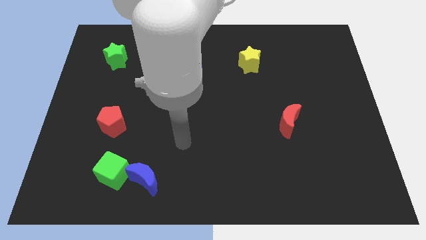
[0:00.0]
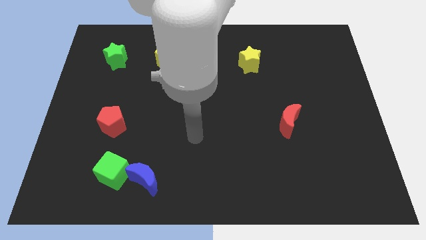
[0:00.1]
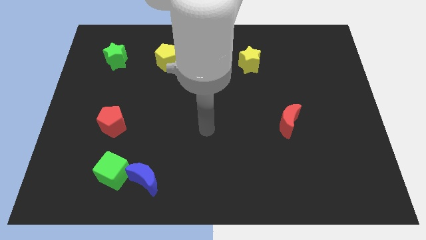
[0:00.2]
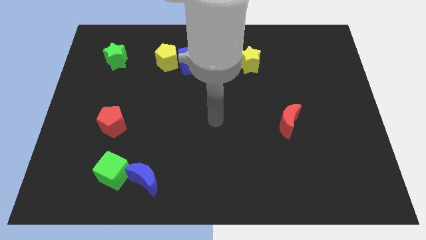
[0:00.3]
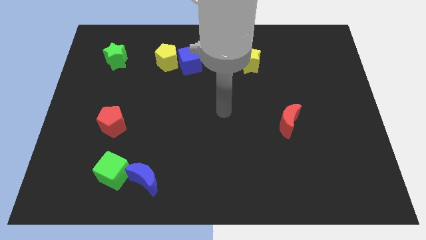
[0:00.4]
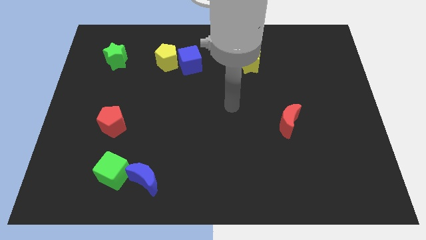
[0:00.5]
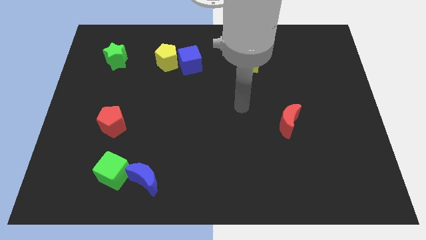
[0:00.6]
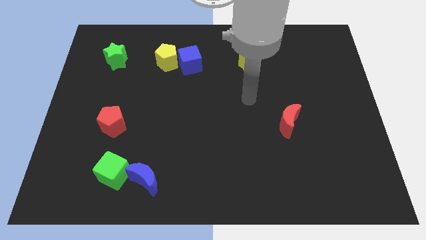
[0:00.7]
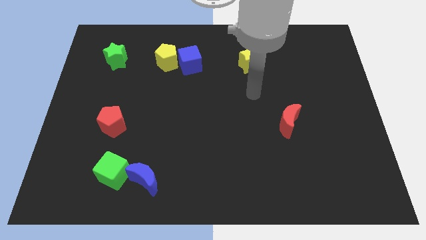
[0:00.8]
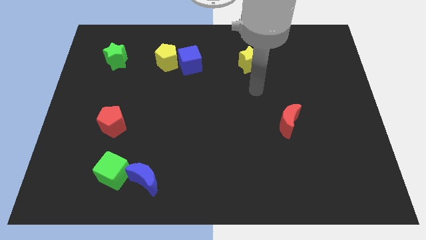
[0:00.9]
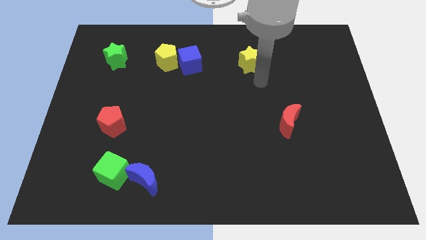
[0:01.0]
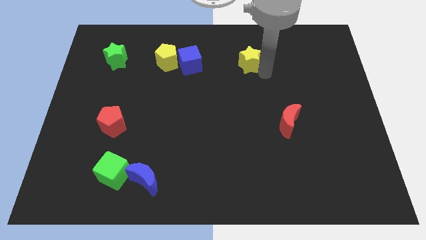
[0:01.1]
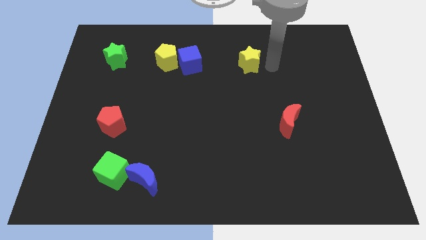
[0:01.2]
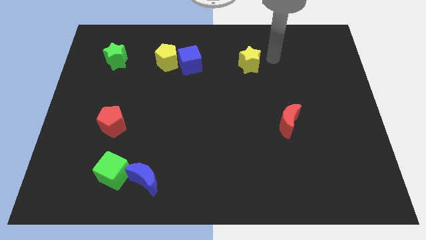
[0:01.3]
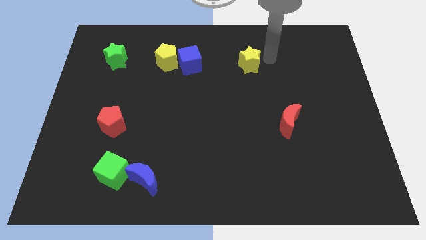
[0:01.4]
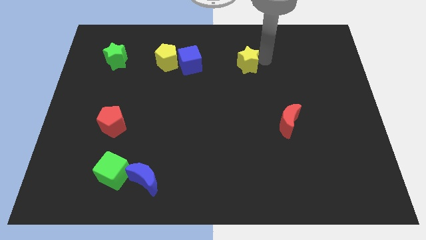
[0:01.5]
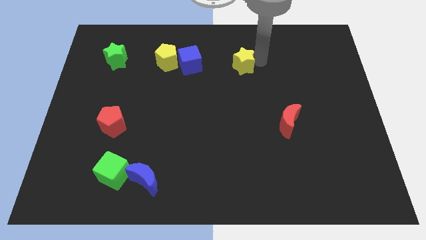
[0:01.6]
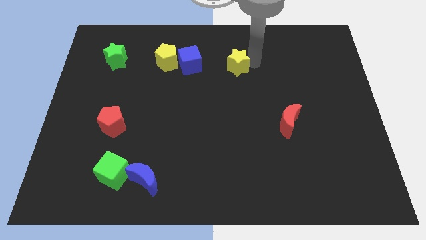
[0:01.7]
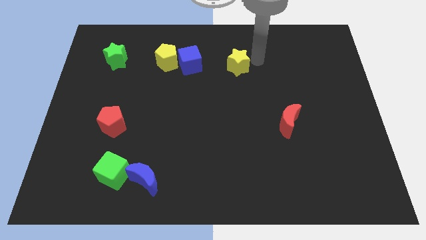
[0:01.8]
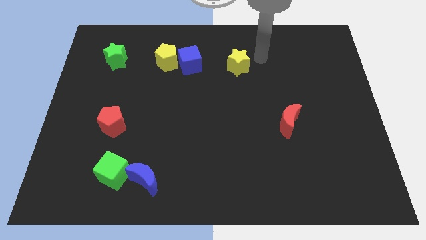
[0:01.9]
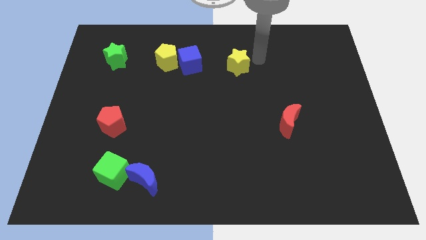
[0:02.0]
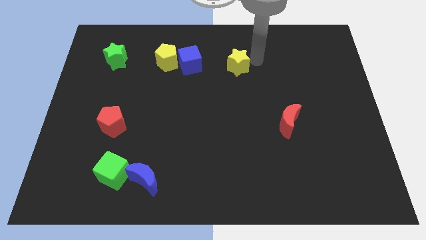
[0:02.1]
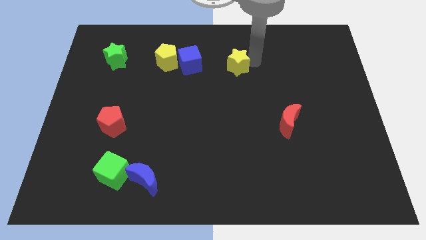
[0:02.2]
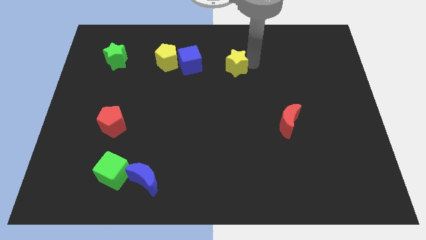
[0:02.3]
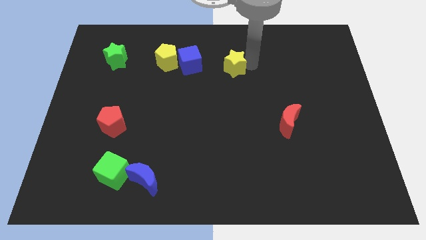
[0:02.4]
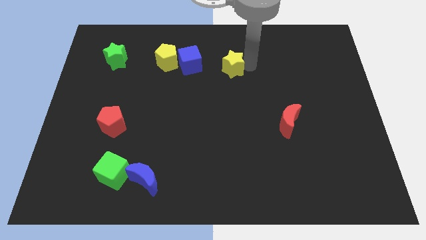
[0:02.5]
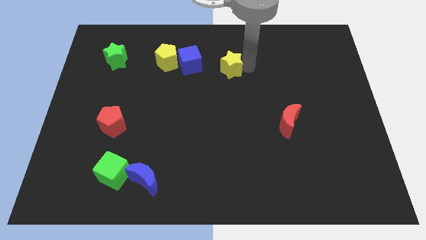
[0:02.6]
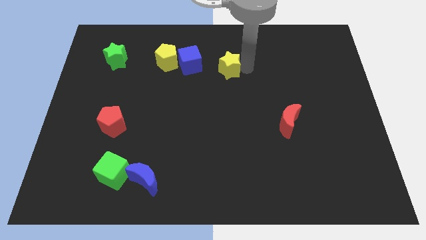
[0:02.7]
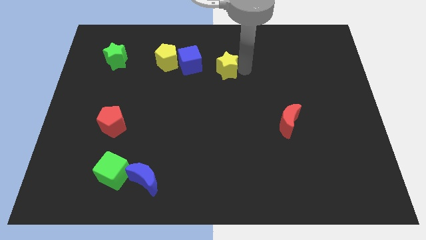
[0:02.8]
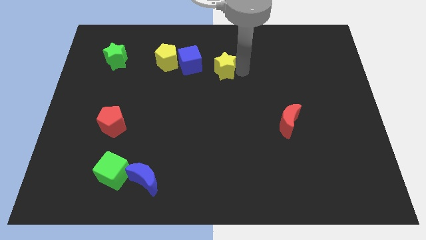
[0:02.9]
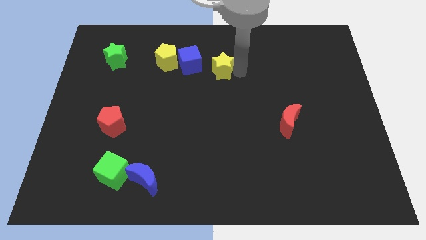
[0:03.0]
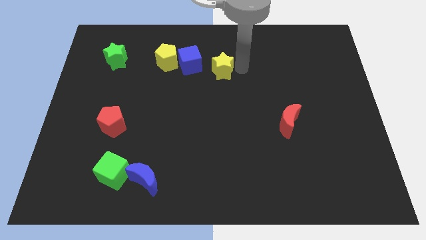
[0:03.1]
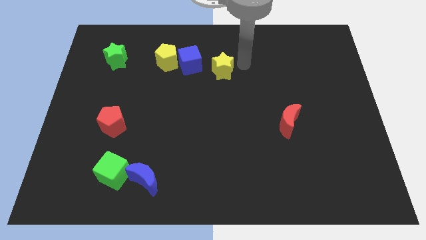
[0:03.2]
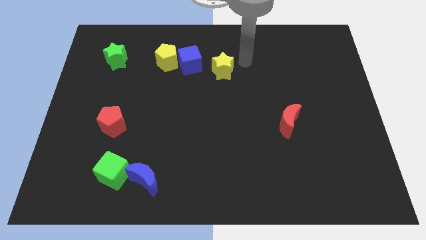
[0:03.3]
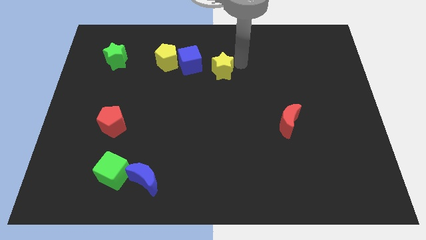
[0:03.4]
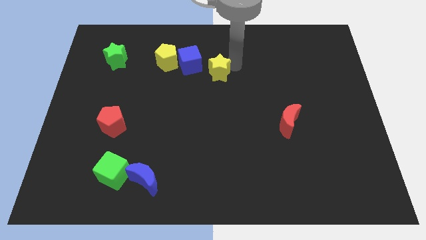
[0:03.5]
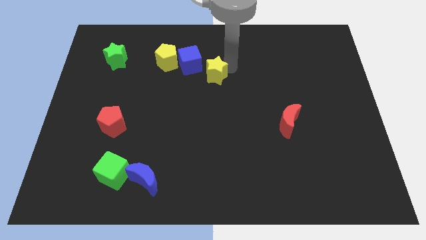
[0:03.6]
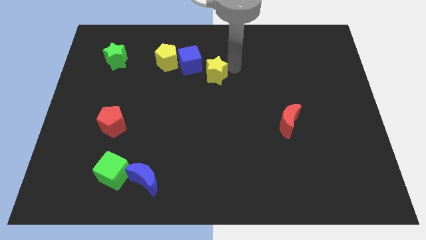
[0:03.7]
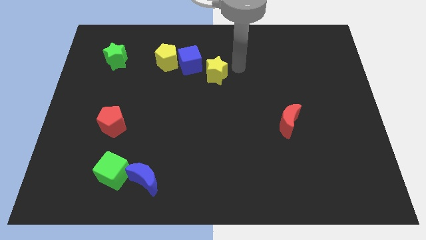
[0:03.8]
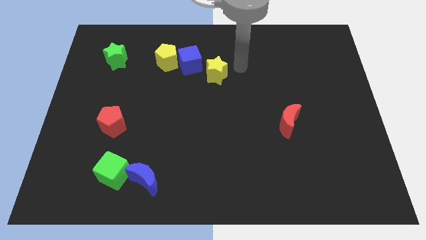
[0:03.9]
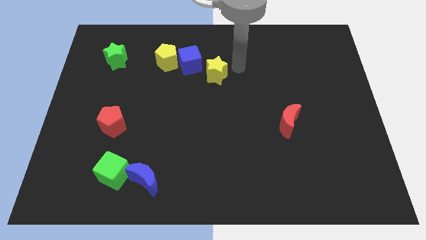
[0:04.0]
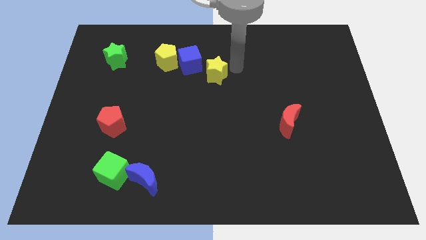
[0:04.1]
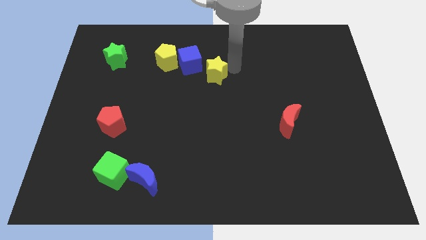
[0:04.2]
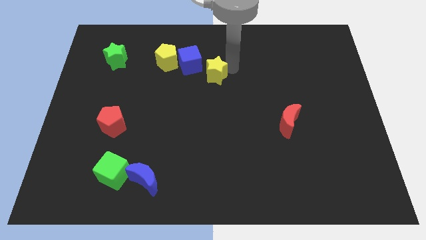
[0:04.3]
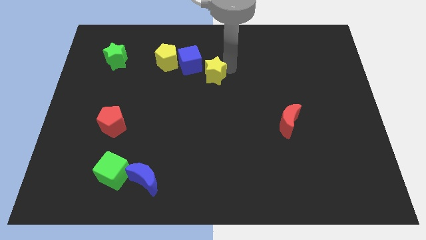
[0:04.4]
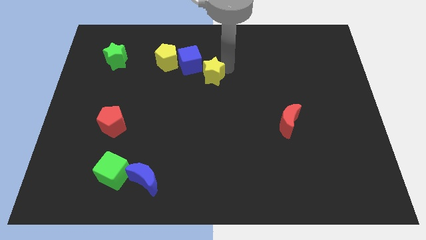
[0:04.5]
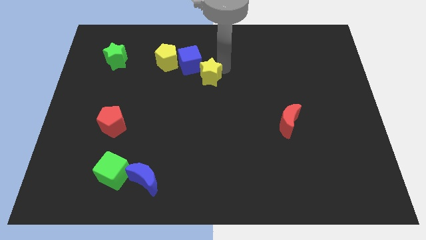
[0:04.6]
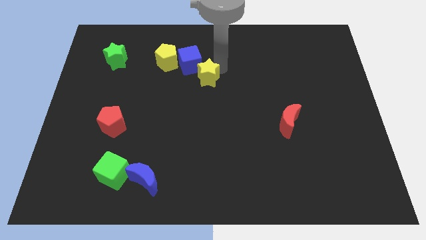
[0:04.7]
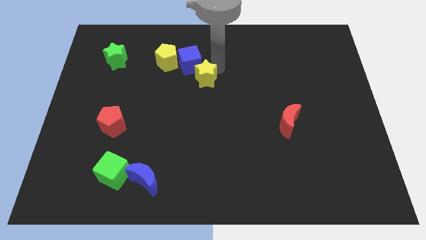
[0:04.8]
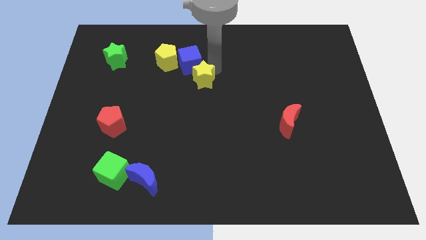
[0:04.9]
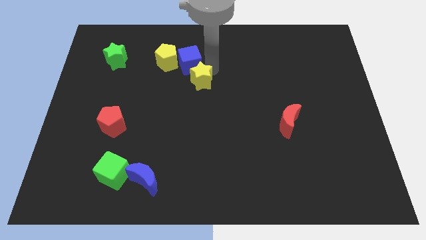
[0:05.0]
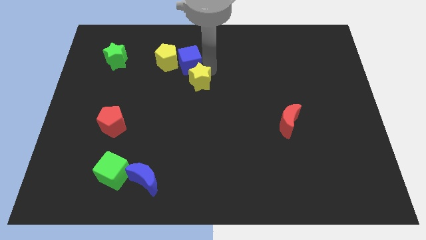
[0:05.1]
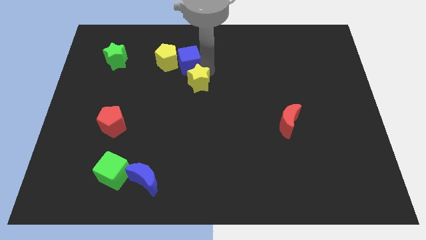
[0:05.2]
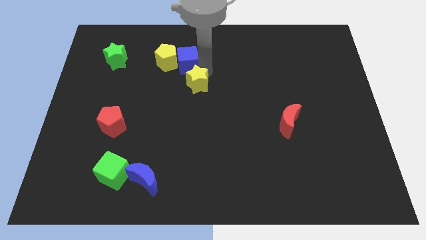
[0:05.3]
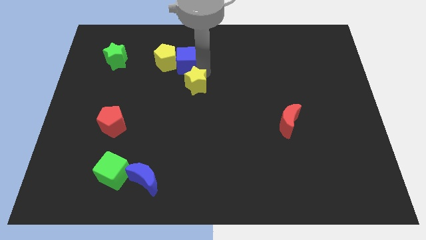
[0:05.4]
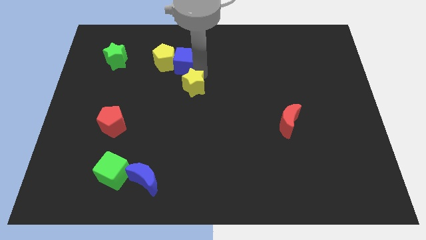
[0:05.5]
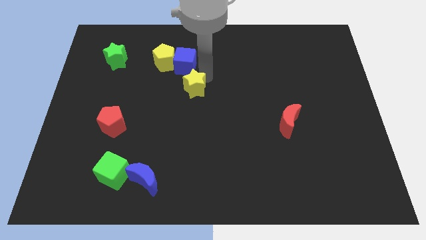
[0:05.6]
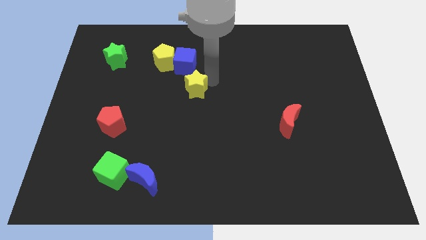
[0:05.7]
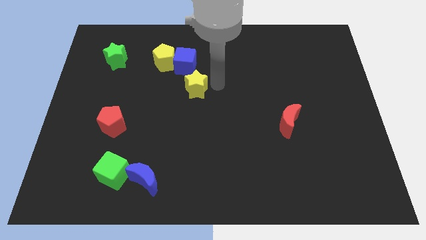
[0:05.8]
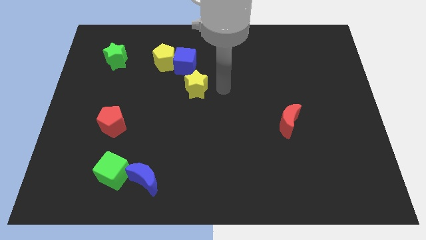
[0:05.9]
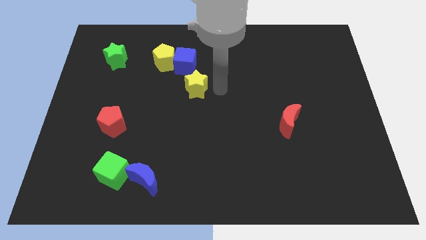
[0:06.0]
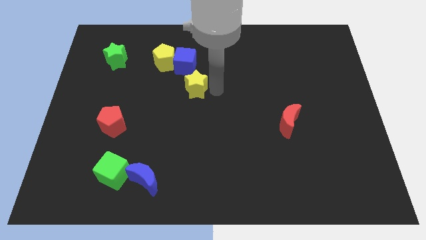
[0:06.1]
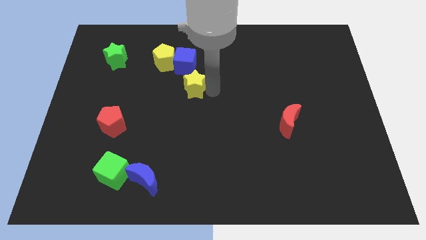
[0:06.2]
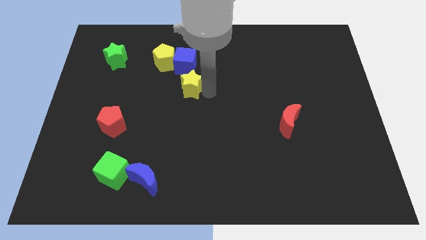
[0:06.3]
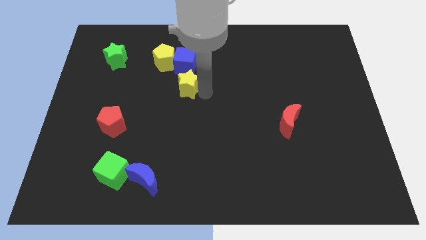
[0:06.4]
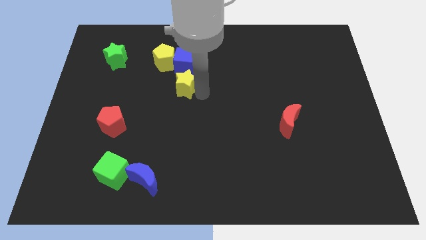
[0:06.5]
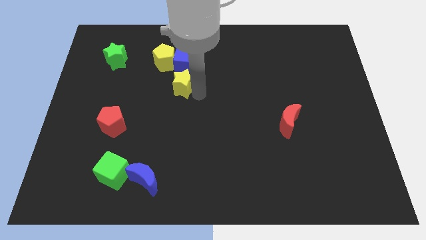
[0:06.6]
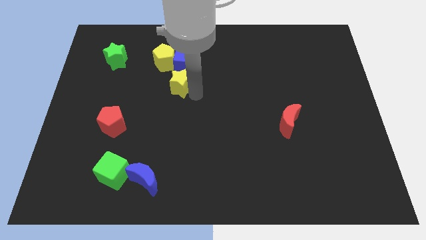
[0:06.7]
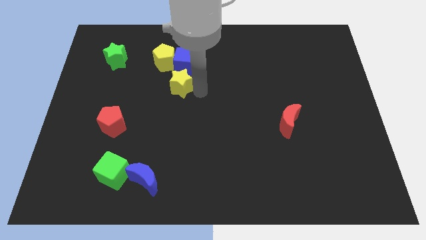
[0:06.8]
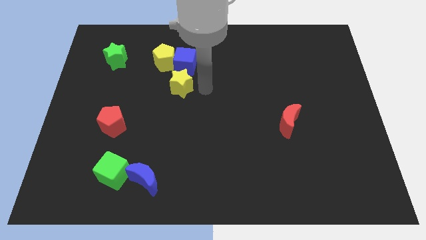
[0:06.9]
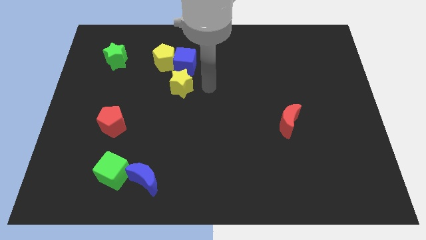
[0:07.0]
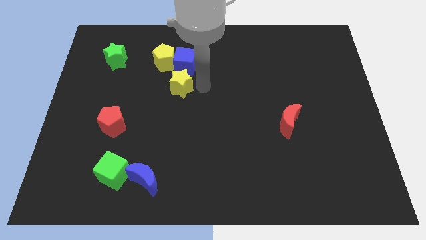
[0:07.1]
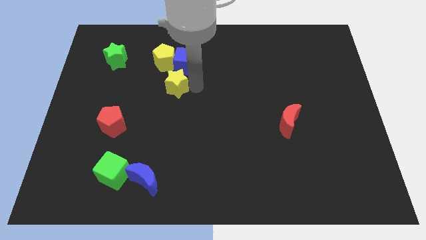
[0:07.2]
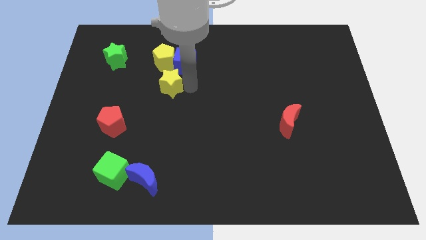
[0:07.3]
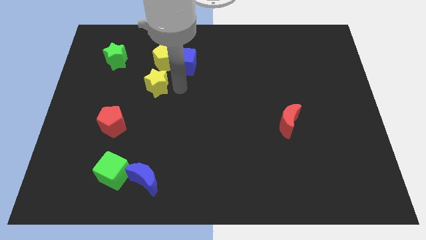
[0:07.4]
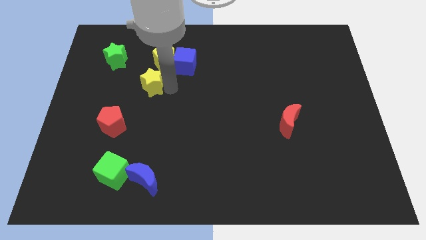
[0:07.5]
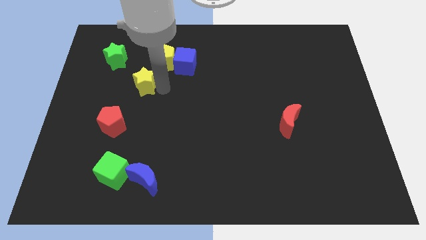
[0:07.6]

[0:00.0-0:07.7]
move the yellow star diagonally down and to the right of the green star

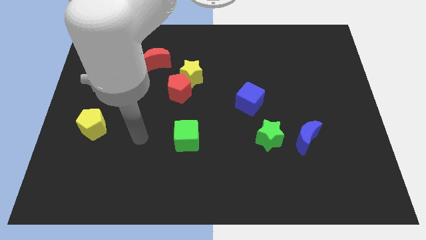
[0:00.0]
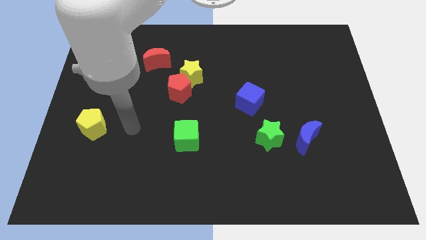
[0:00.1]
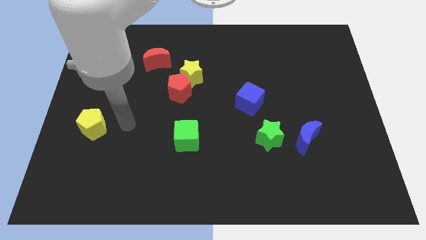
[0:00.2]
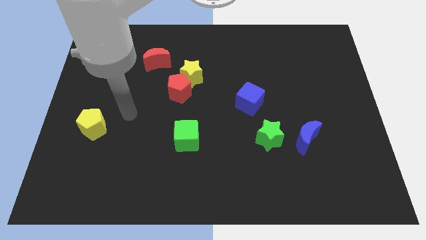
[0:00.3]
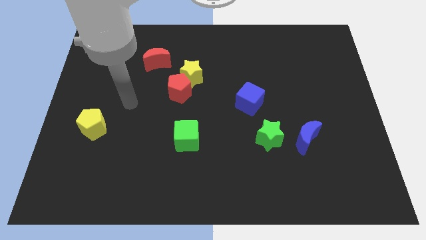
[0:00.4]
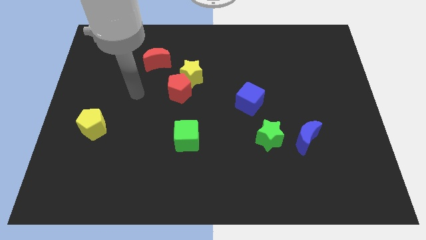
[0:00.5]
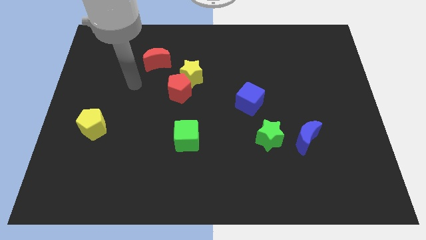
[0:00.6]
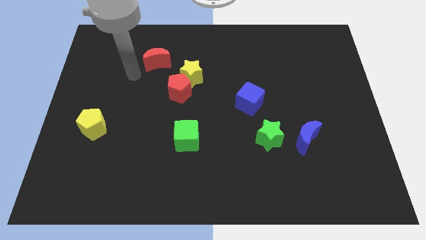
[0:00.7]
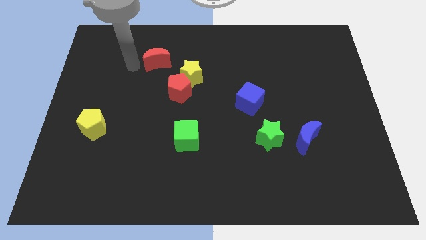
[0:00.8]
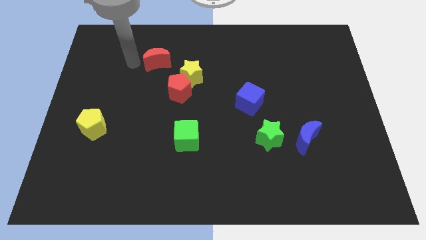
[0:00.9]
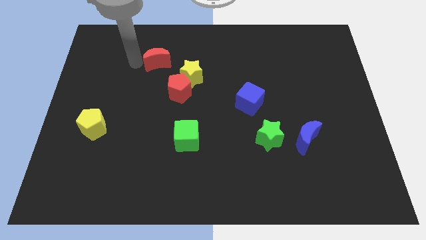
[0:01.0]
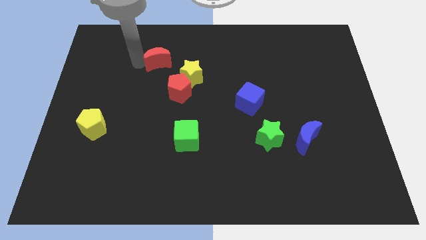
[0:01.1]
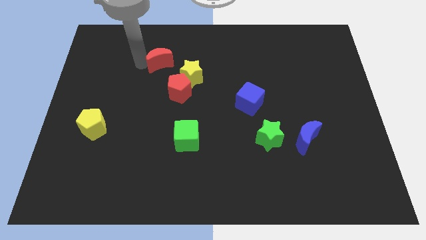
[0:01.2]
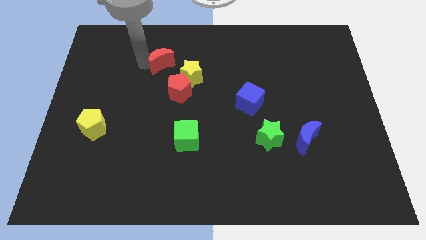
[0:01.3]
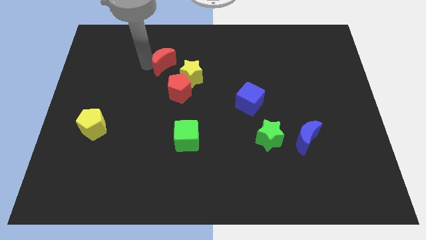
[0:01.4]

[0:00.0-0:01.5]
slide the red moon to the top side of the red pentagon
